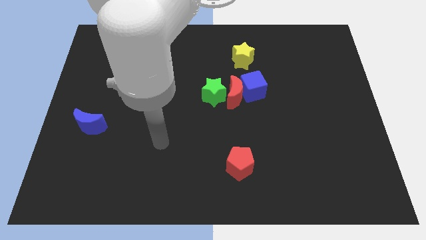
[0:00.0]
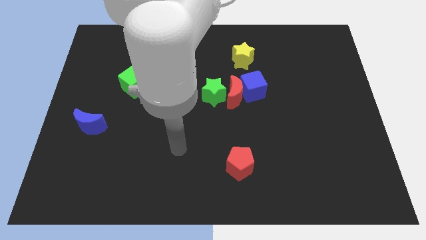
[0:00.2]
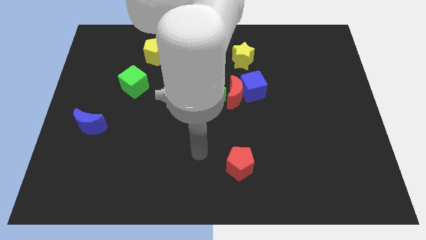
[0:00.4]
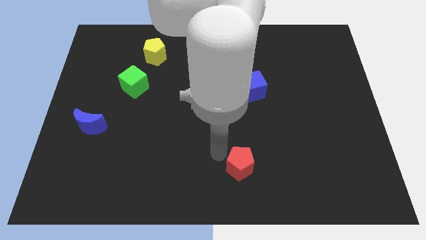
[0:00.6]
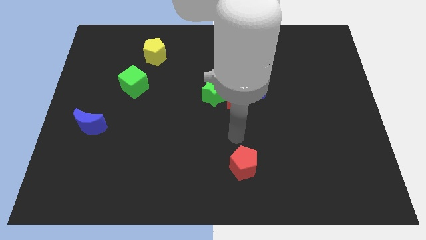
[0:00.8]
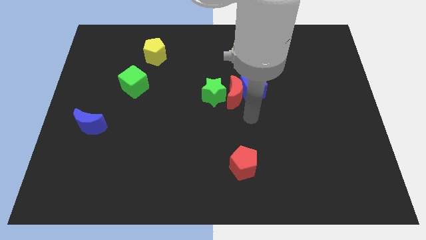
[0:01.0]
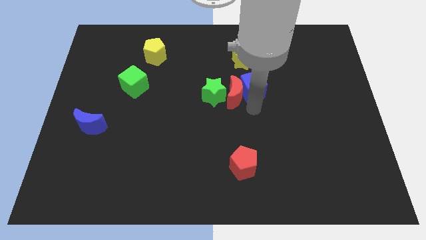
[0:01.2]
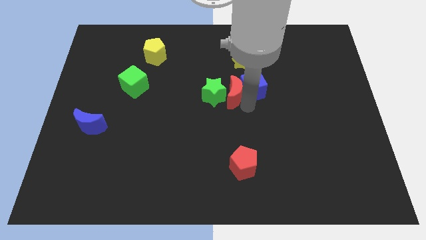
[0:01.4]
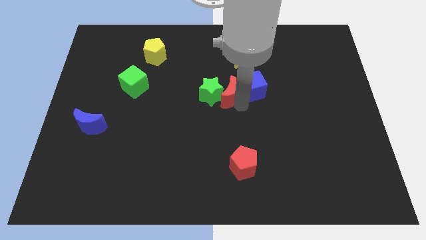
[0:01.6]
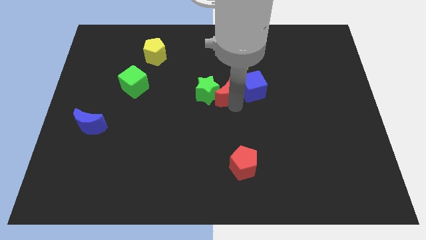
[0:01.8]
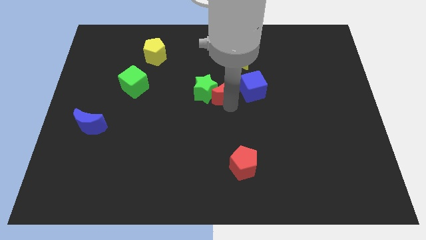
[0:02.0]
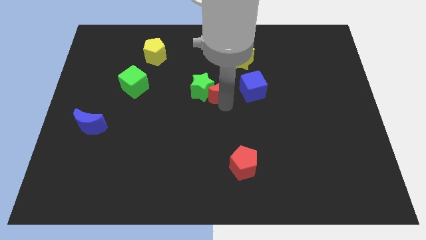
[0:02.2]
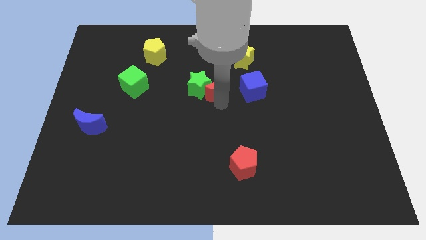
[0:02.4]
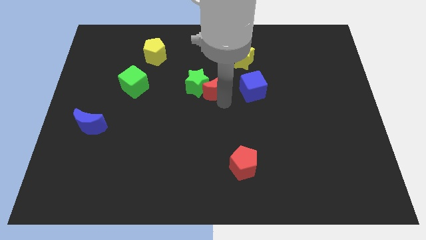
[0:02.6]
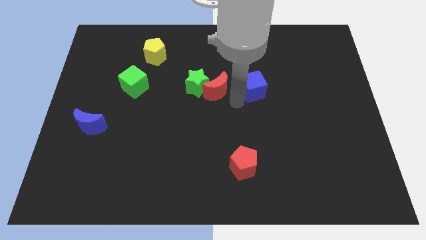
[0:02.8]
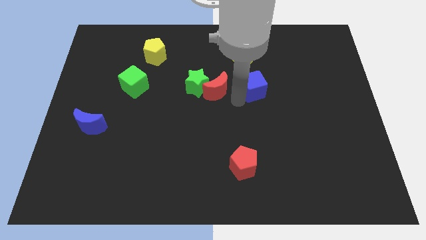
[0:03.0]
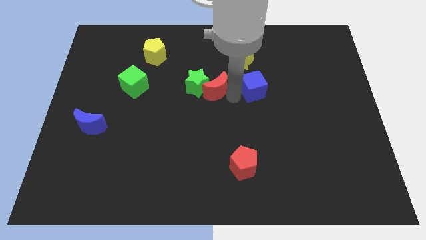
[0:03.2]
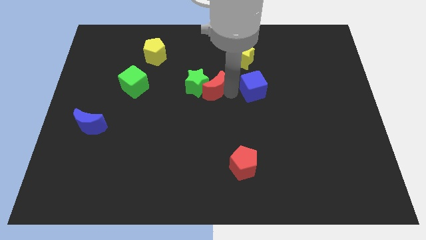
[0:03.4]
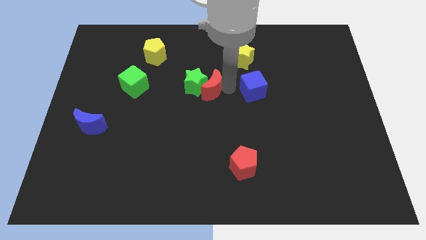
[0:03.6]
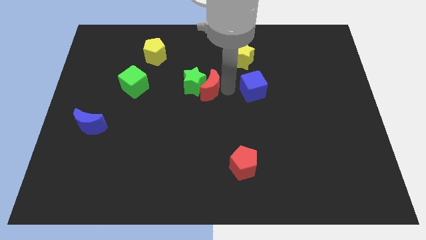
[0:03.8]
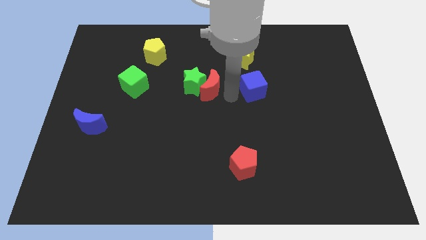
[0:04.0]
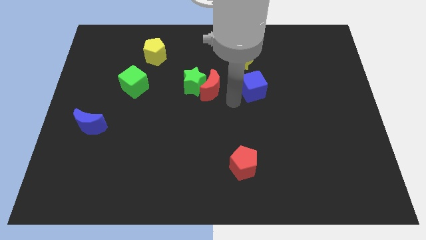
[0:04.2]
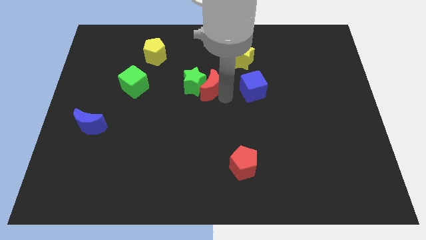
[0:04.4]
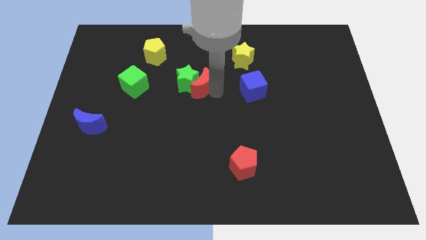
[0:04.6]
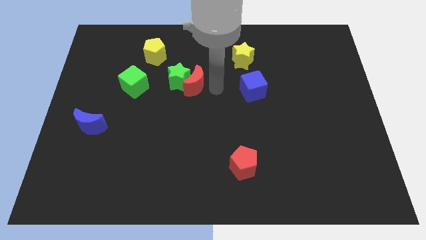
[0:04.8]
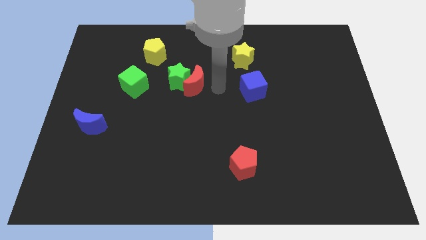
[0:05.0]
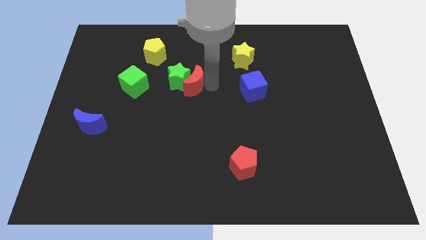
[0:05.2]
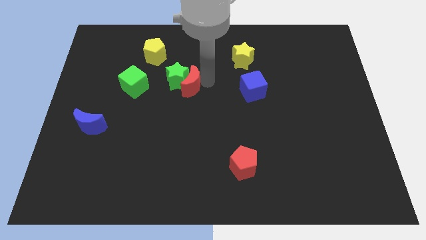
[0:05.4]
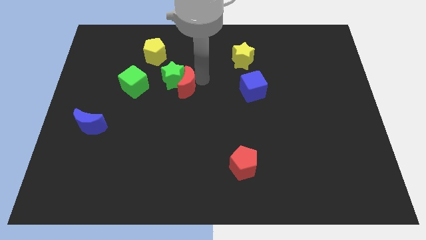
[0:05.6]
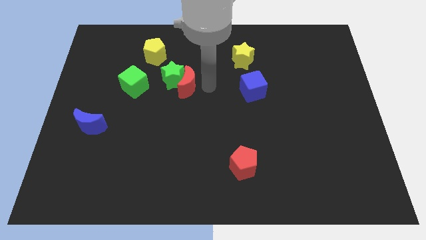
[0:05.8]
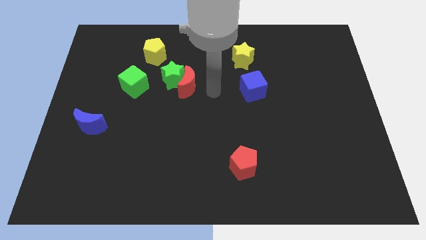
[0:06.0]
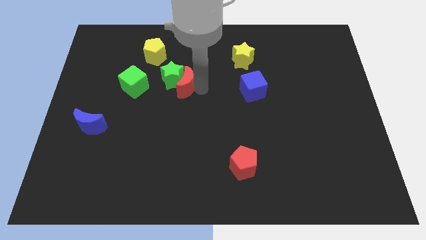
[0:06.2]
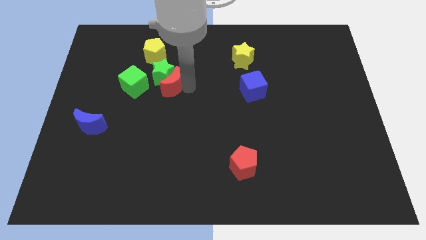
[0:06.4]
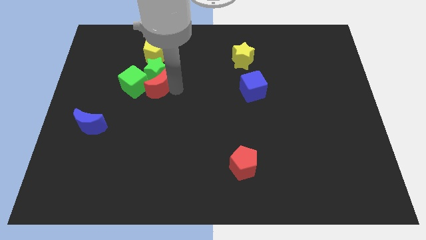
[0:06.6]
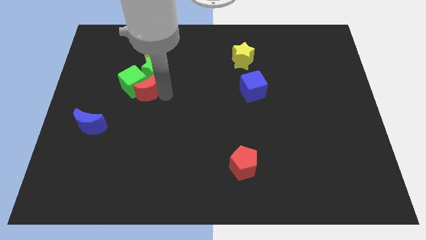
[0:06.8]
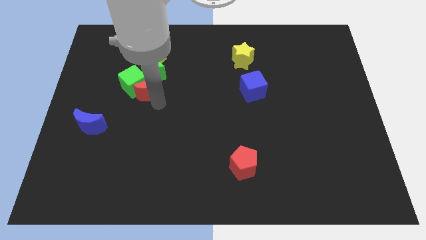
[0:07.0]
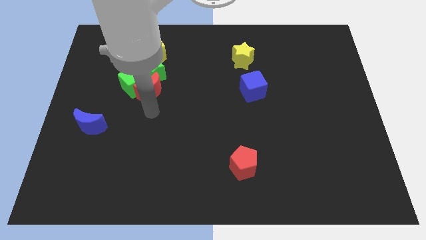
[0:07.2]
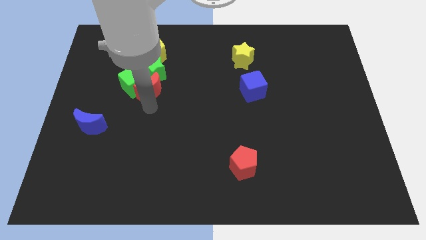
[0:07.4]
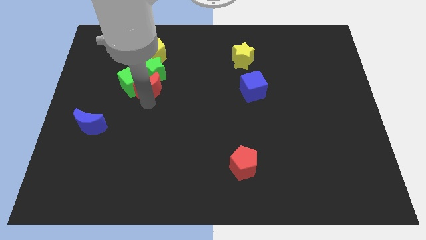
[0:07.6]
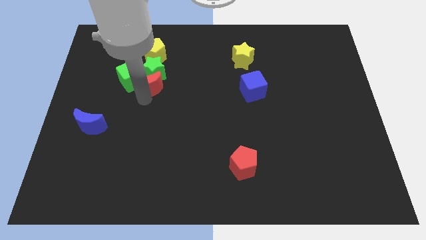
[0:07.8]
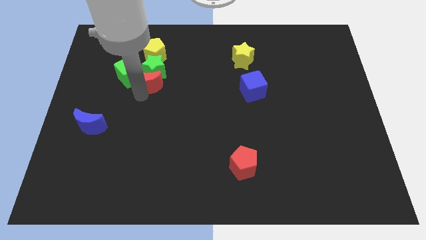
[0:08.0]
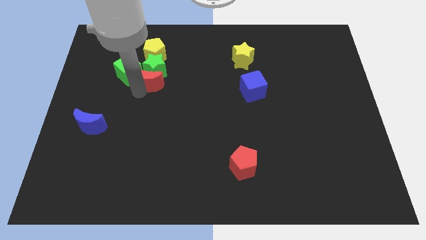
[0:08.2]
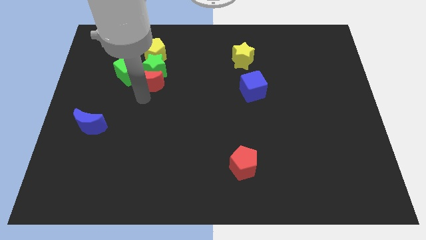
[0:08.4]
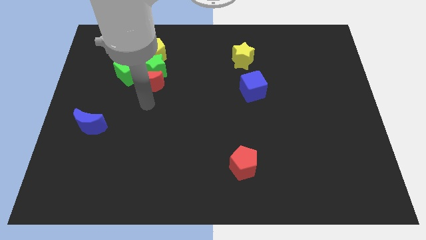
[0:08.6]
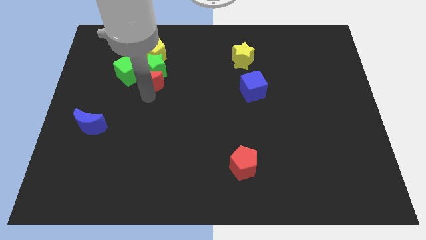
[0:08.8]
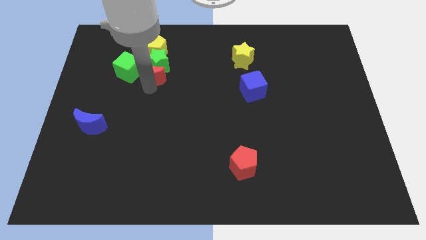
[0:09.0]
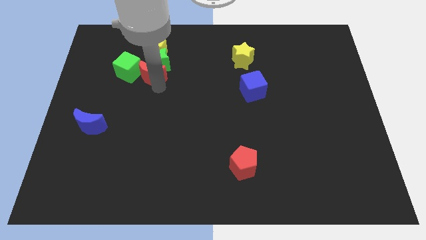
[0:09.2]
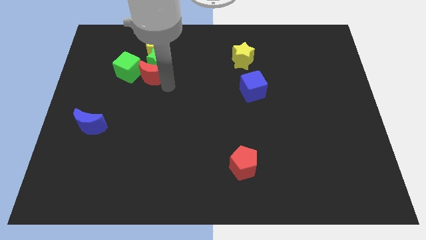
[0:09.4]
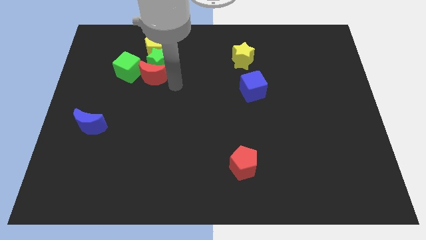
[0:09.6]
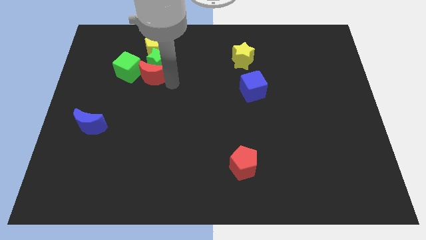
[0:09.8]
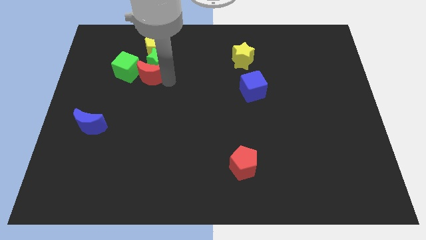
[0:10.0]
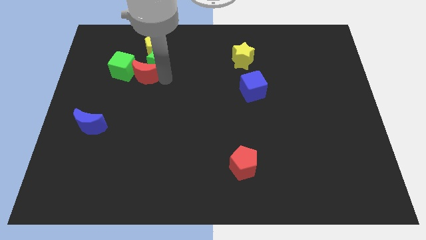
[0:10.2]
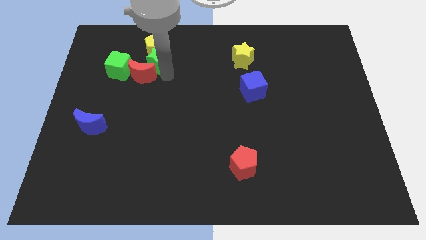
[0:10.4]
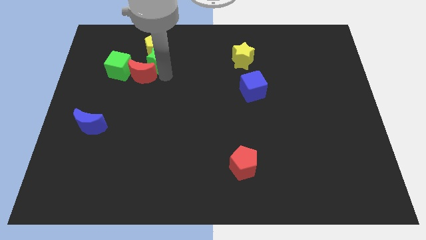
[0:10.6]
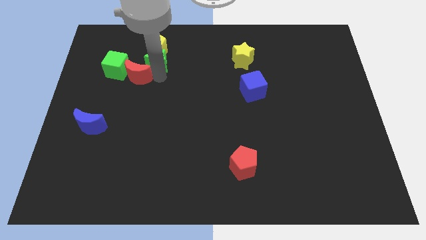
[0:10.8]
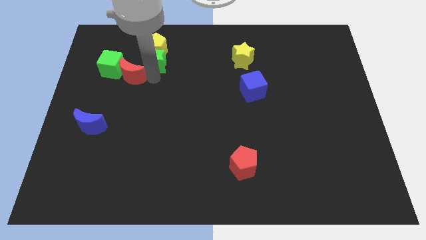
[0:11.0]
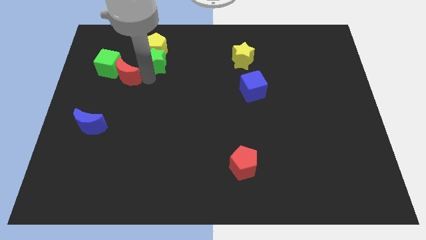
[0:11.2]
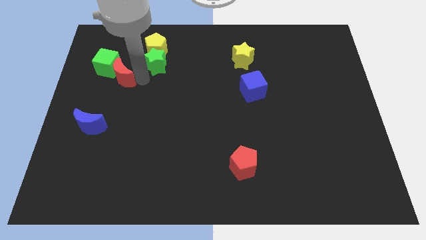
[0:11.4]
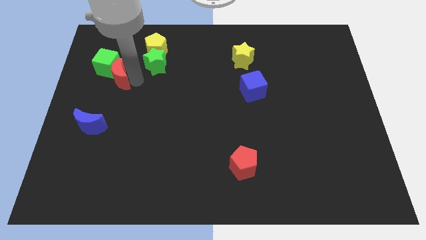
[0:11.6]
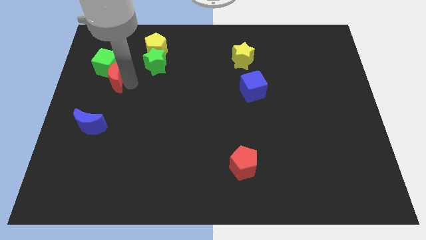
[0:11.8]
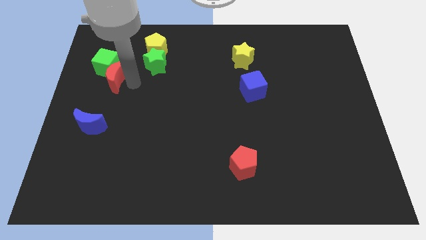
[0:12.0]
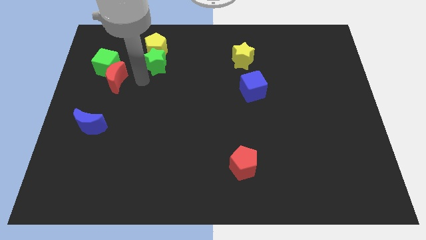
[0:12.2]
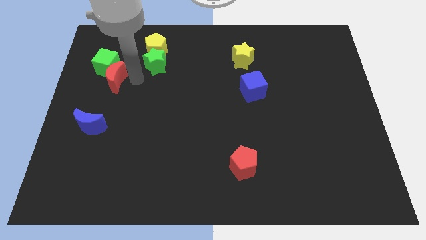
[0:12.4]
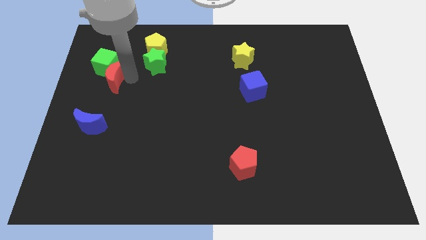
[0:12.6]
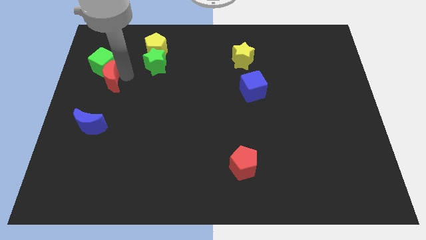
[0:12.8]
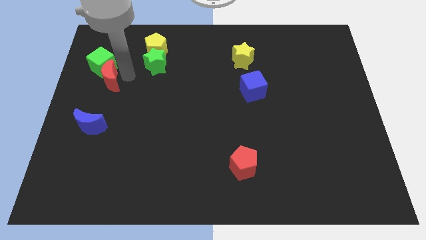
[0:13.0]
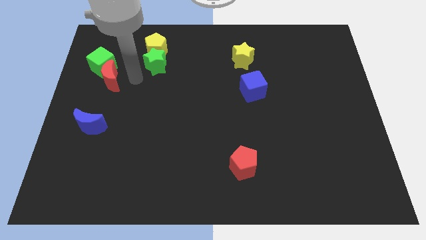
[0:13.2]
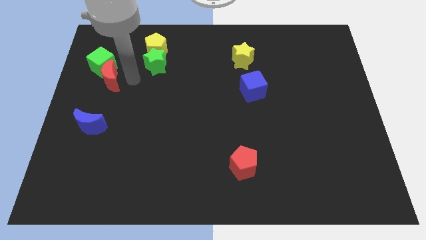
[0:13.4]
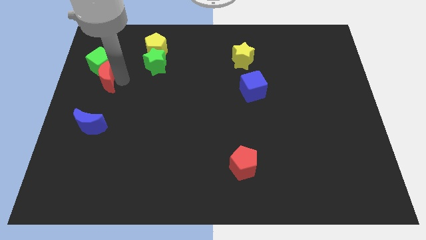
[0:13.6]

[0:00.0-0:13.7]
move the red moon to the left side

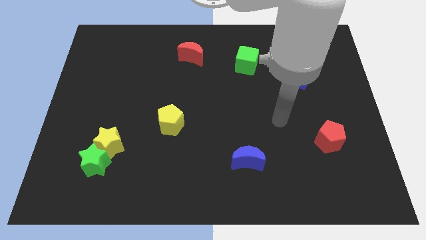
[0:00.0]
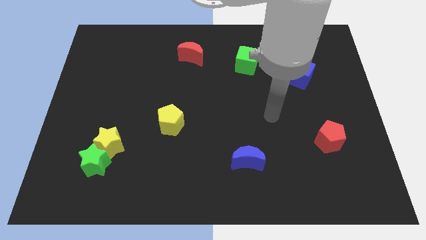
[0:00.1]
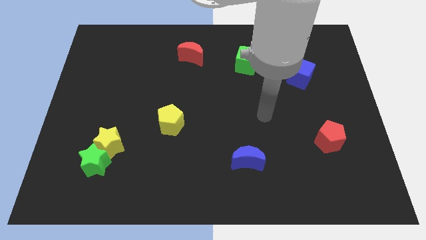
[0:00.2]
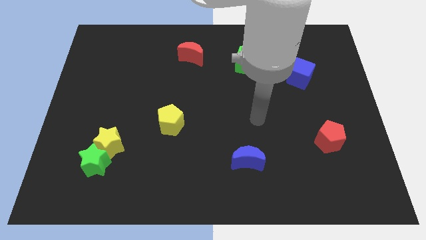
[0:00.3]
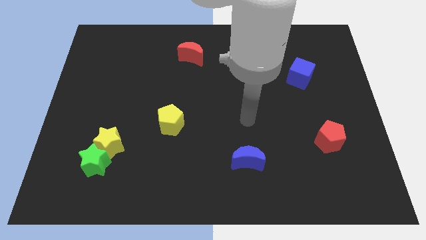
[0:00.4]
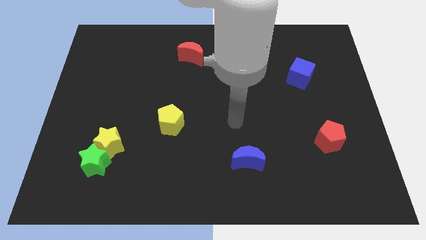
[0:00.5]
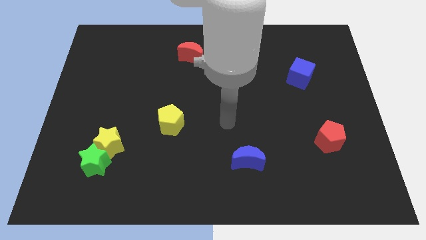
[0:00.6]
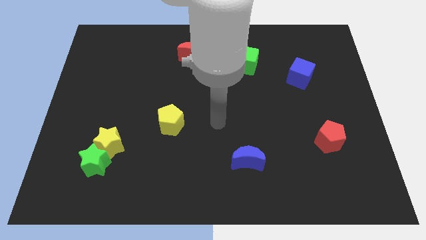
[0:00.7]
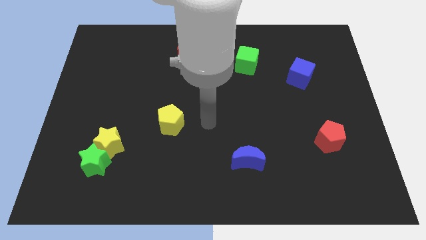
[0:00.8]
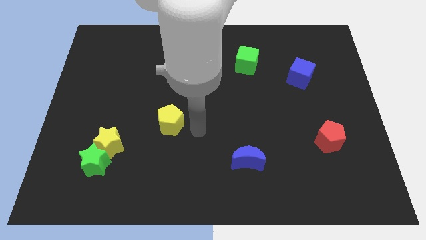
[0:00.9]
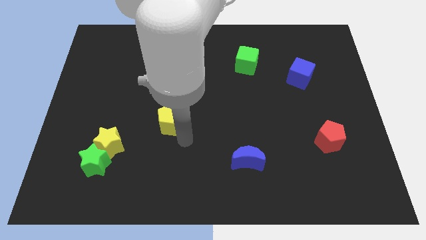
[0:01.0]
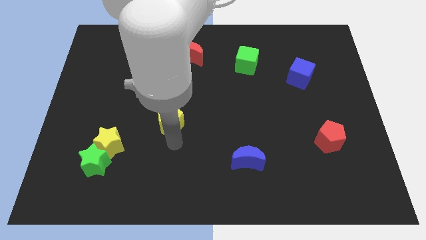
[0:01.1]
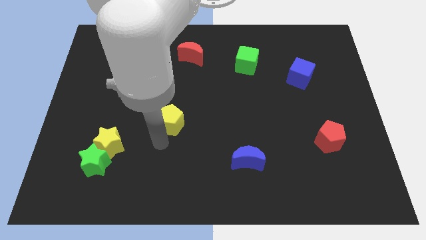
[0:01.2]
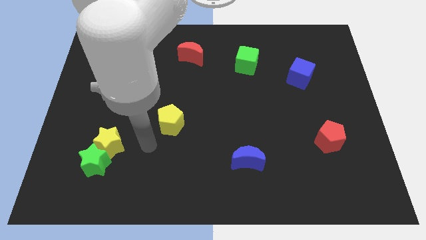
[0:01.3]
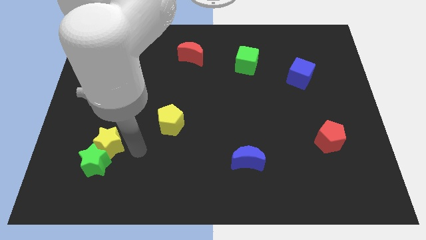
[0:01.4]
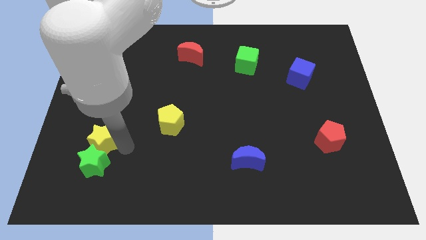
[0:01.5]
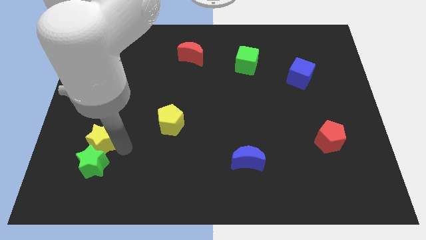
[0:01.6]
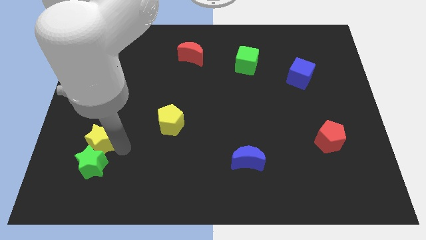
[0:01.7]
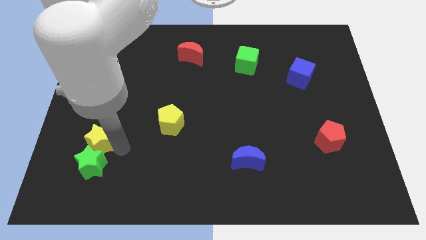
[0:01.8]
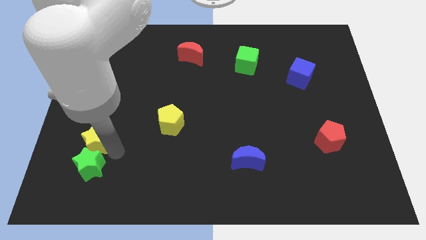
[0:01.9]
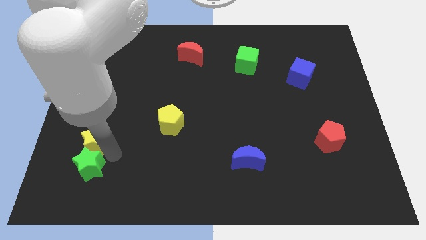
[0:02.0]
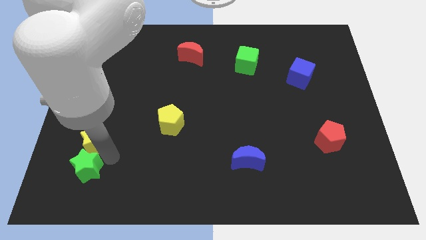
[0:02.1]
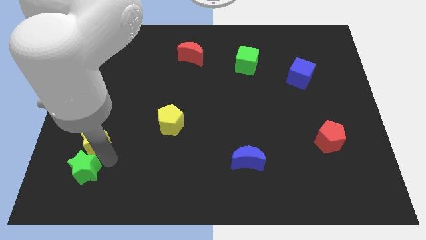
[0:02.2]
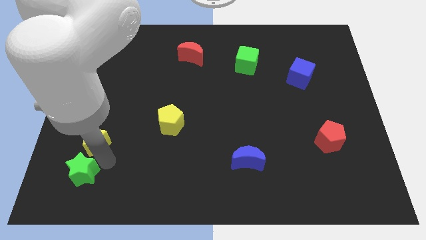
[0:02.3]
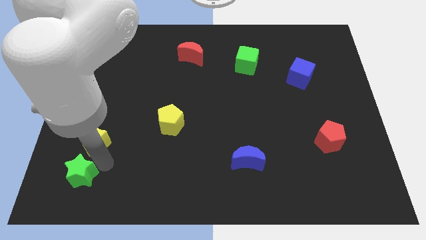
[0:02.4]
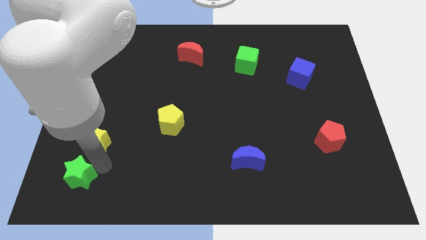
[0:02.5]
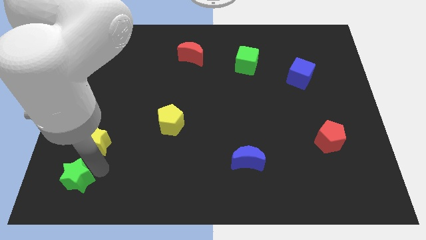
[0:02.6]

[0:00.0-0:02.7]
slide the green star to the lower left corner
